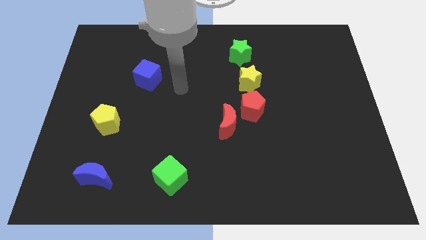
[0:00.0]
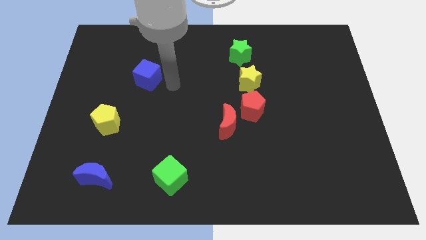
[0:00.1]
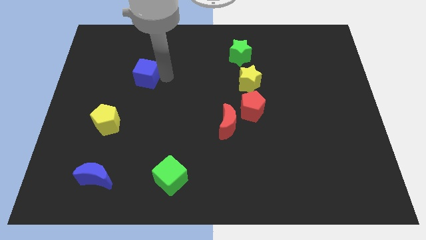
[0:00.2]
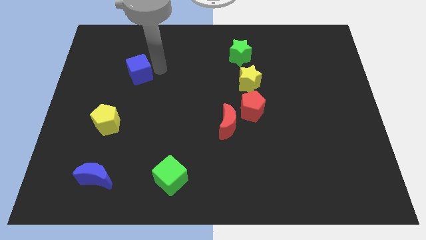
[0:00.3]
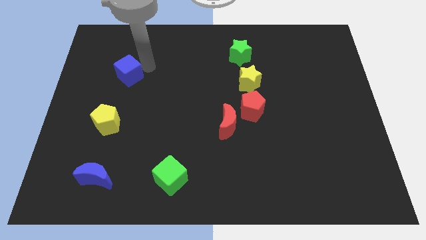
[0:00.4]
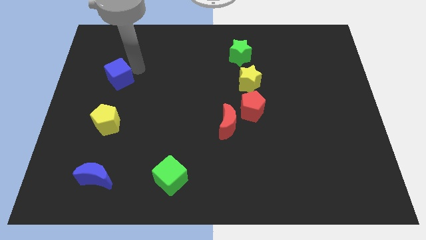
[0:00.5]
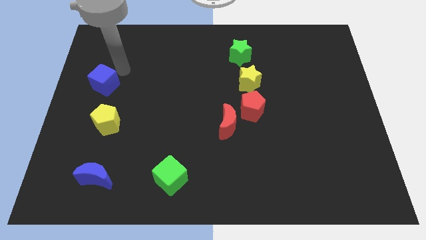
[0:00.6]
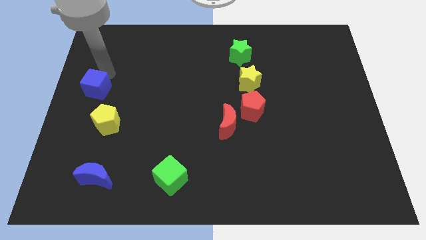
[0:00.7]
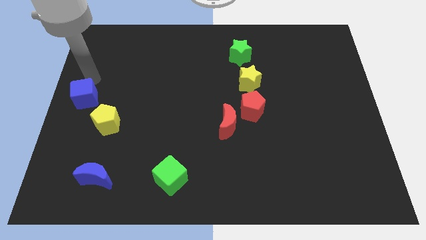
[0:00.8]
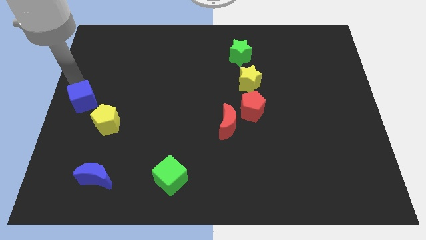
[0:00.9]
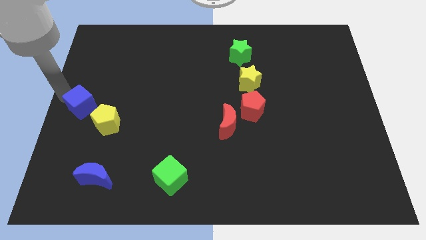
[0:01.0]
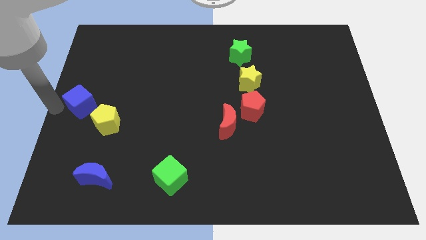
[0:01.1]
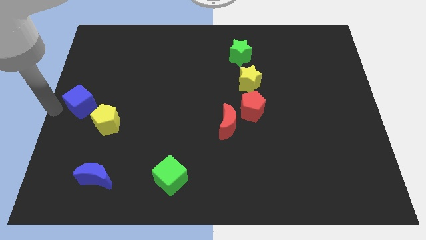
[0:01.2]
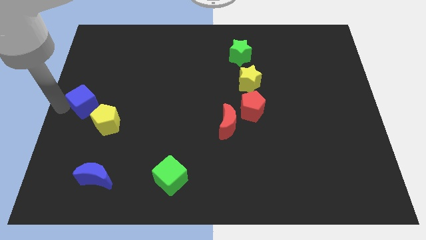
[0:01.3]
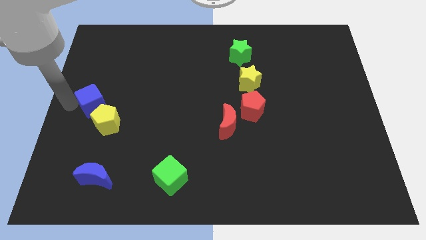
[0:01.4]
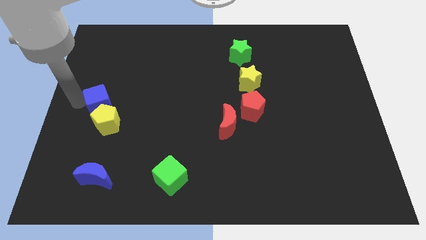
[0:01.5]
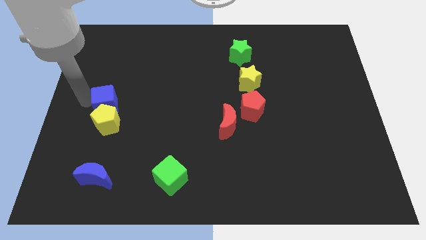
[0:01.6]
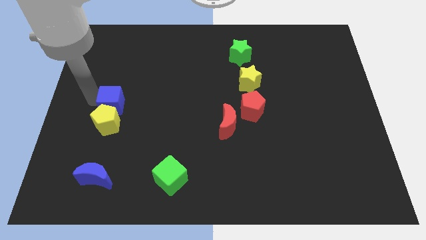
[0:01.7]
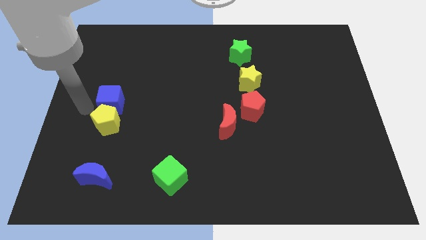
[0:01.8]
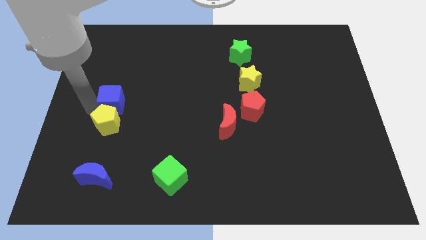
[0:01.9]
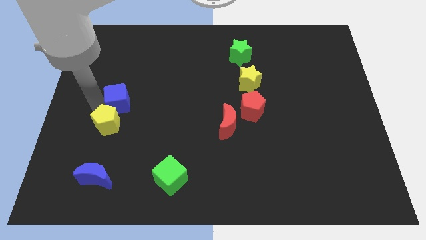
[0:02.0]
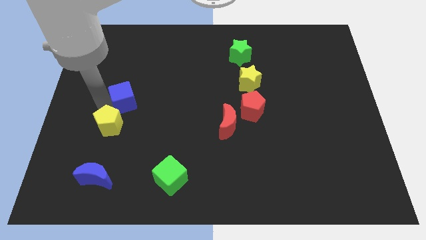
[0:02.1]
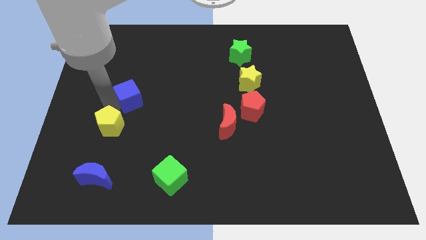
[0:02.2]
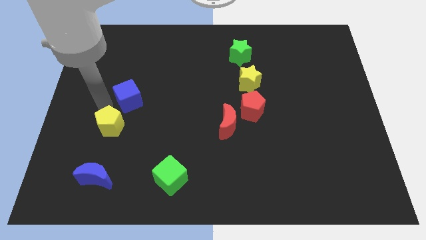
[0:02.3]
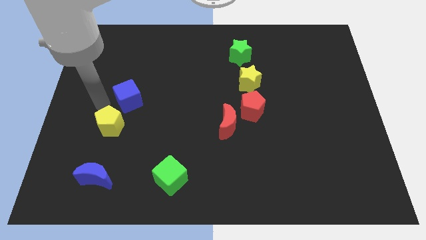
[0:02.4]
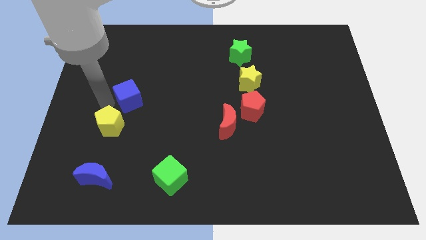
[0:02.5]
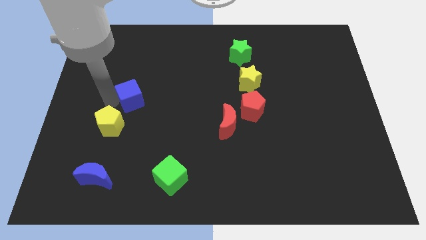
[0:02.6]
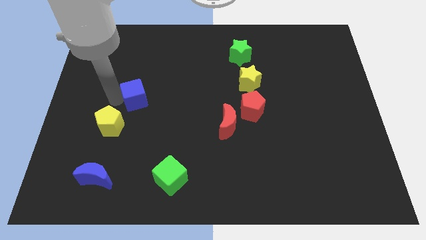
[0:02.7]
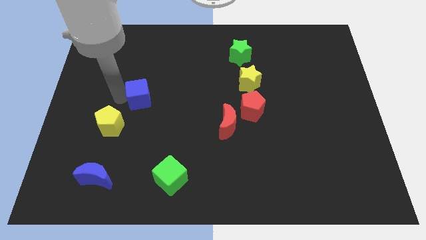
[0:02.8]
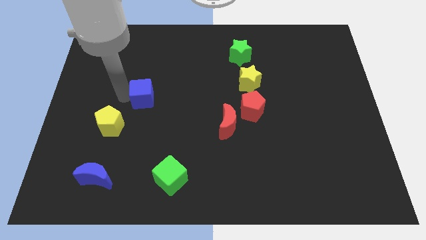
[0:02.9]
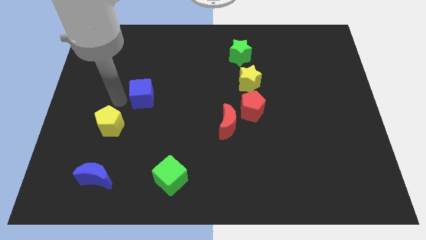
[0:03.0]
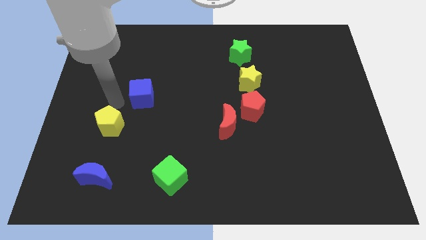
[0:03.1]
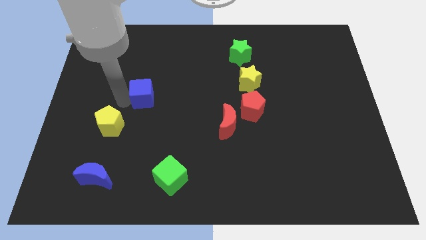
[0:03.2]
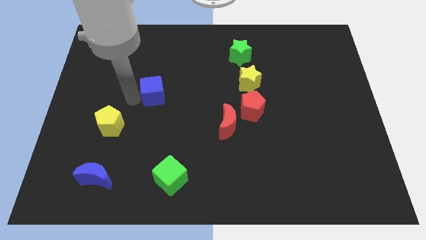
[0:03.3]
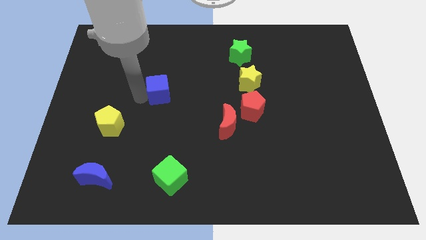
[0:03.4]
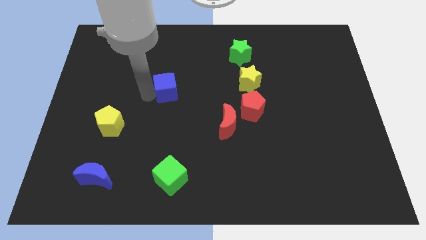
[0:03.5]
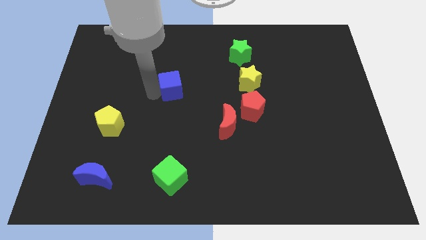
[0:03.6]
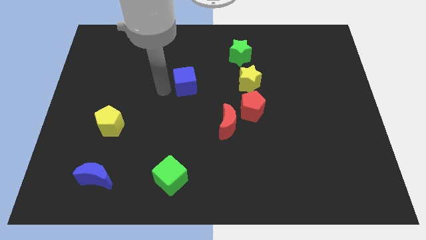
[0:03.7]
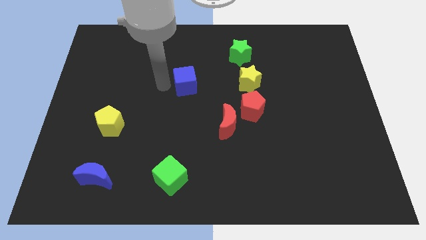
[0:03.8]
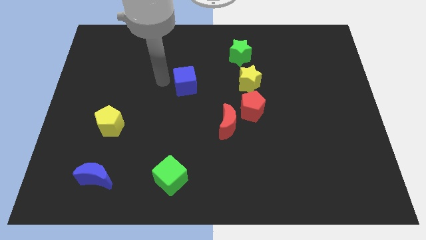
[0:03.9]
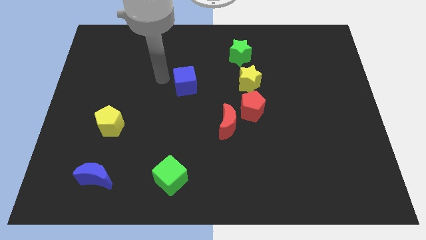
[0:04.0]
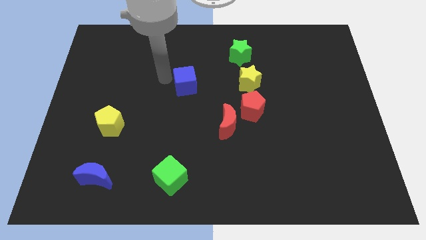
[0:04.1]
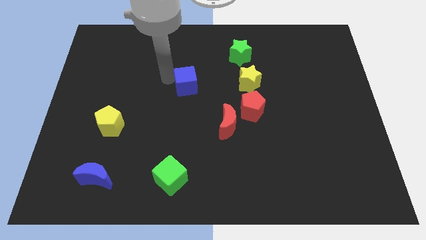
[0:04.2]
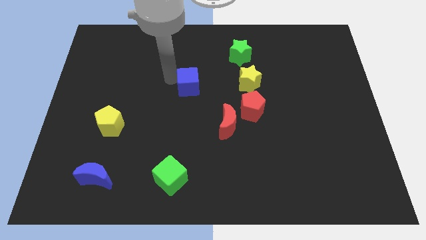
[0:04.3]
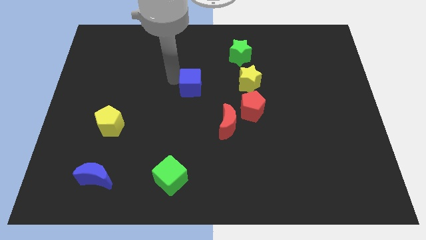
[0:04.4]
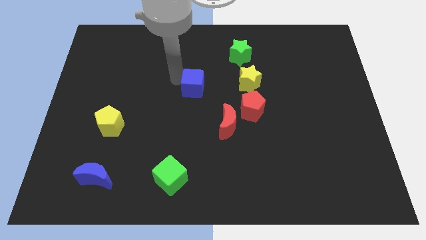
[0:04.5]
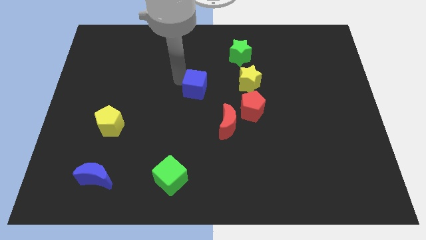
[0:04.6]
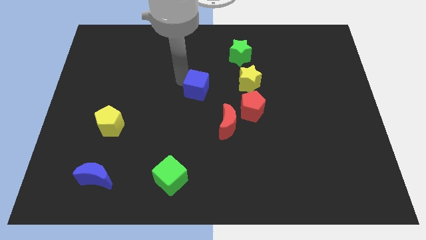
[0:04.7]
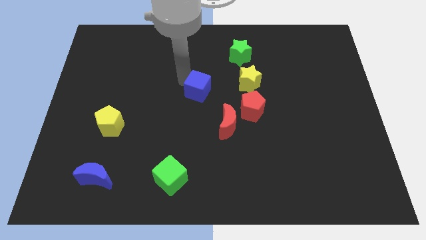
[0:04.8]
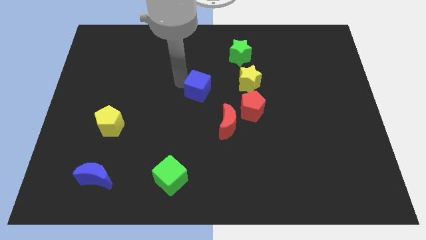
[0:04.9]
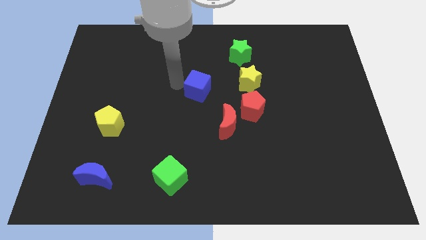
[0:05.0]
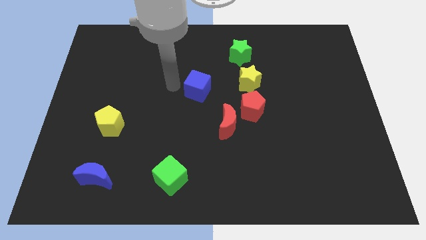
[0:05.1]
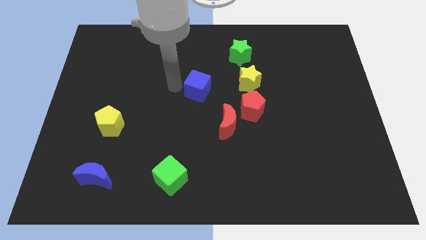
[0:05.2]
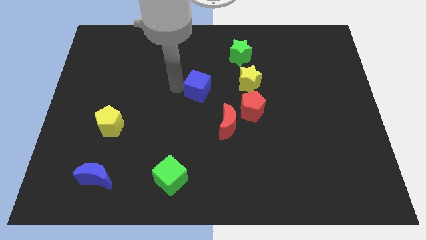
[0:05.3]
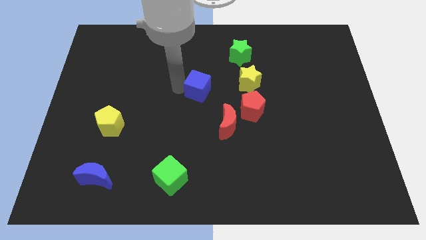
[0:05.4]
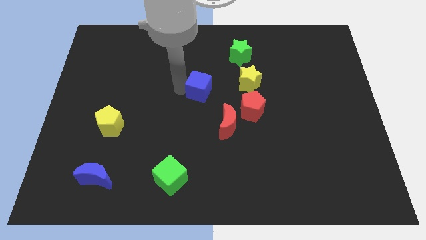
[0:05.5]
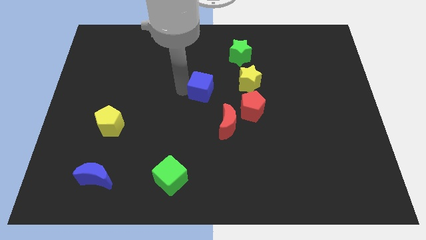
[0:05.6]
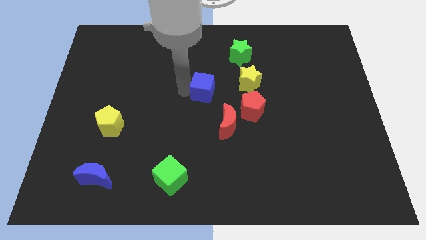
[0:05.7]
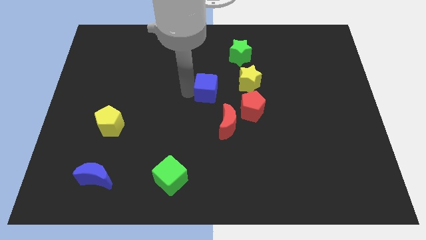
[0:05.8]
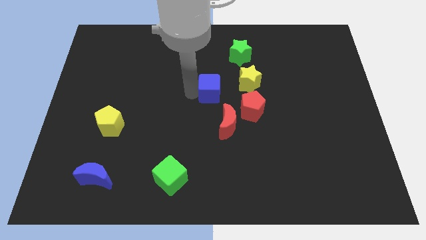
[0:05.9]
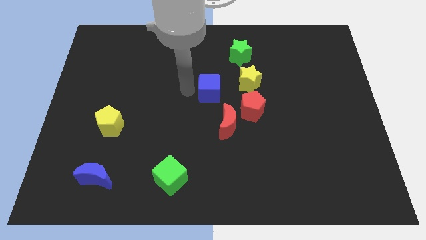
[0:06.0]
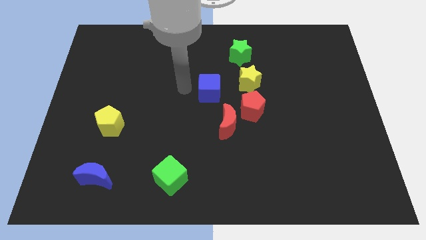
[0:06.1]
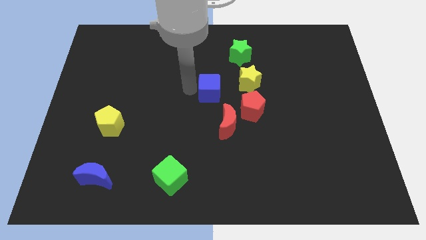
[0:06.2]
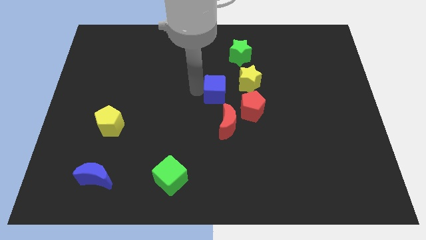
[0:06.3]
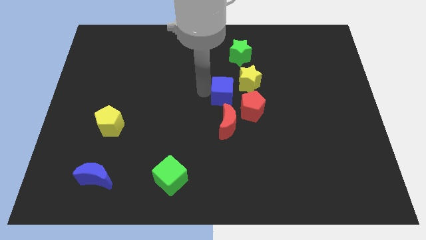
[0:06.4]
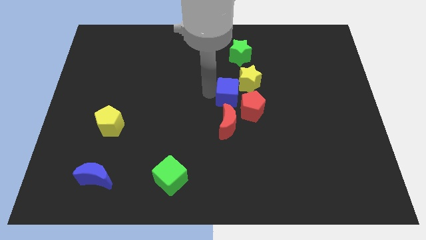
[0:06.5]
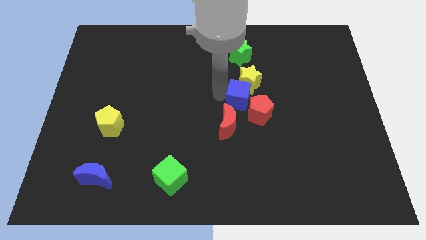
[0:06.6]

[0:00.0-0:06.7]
push the blue cube diagonally up and to the right of the red moon

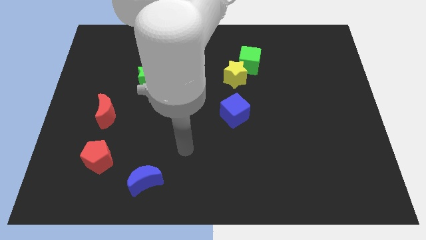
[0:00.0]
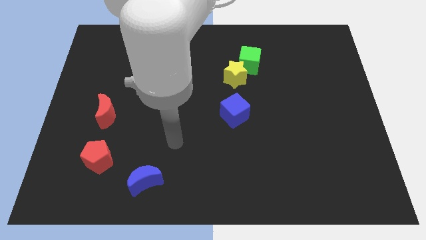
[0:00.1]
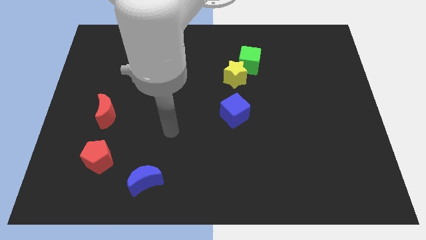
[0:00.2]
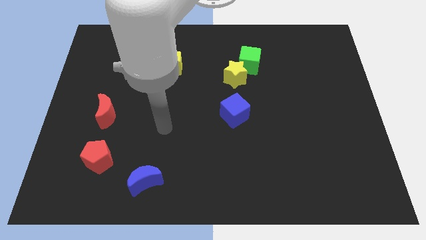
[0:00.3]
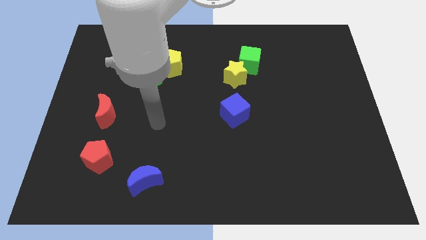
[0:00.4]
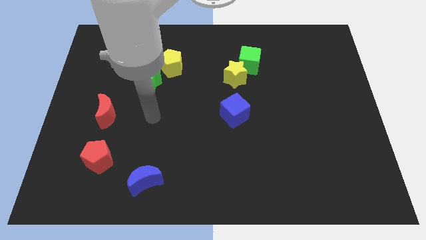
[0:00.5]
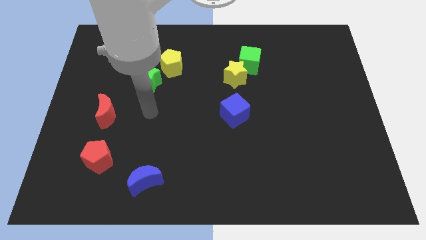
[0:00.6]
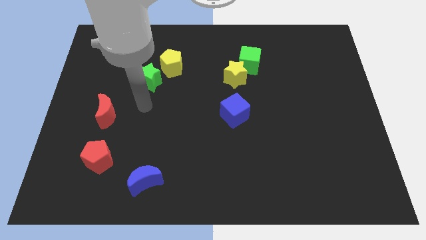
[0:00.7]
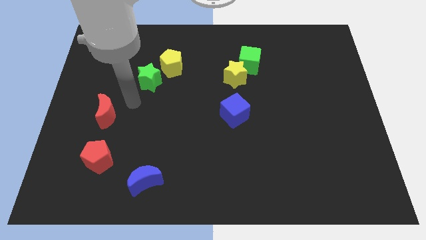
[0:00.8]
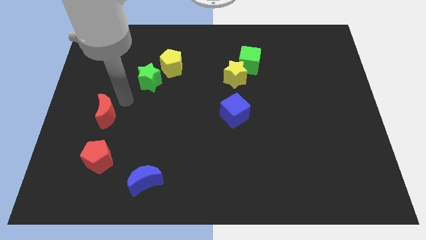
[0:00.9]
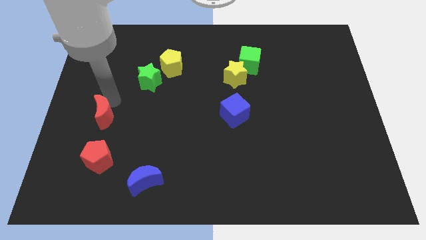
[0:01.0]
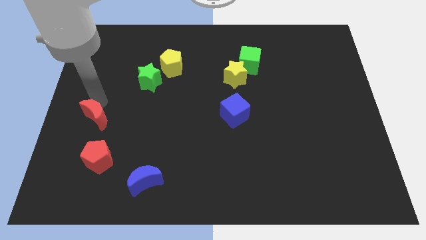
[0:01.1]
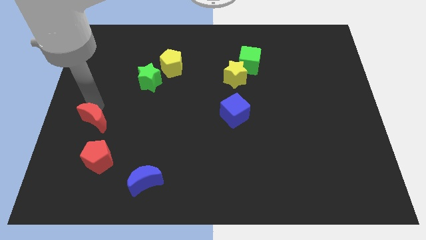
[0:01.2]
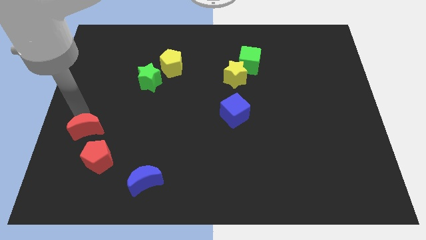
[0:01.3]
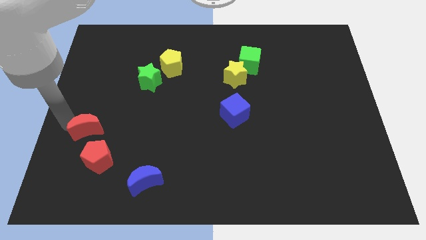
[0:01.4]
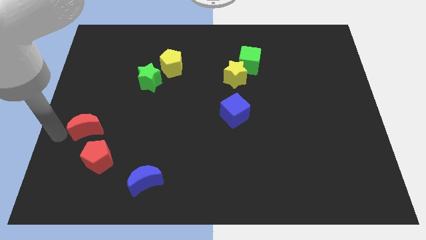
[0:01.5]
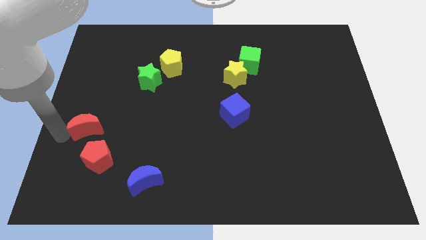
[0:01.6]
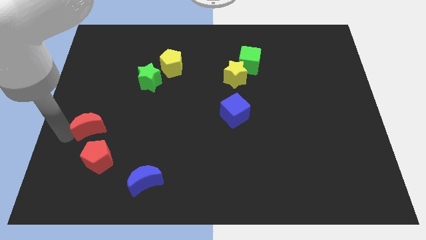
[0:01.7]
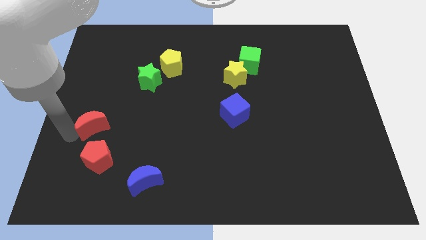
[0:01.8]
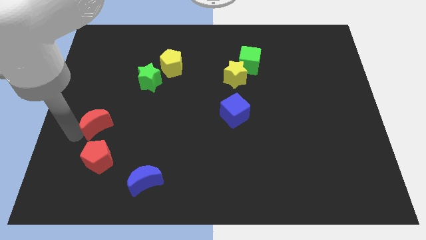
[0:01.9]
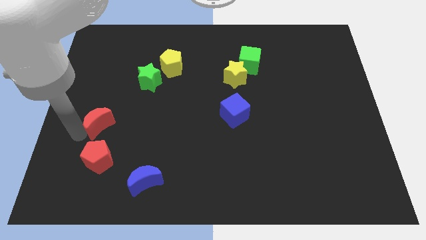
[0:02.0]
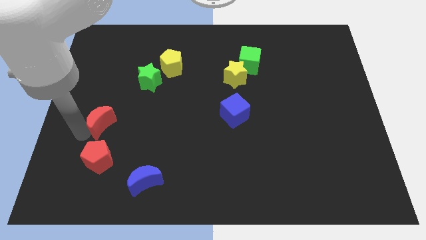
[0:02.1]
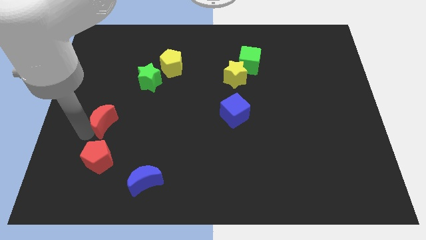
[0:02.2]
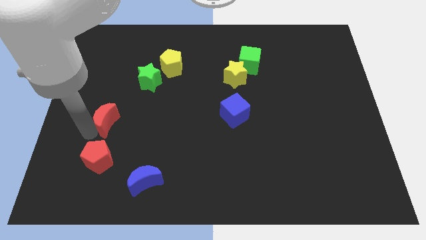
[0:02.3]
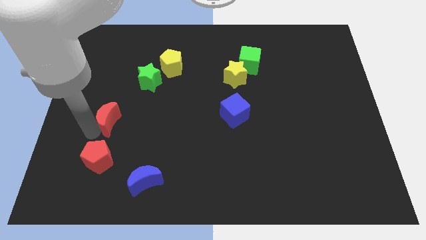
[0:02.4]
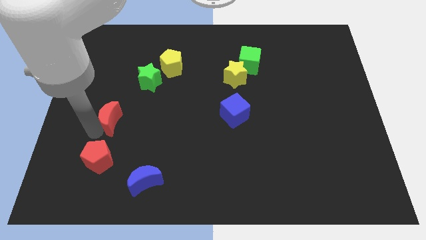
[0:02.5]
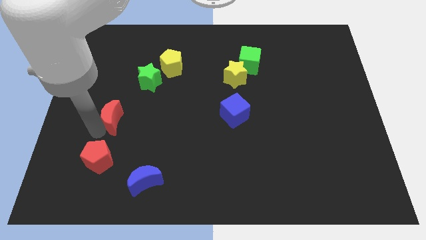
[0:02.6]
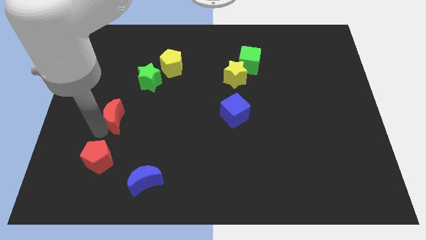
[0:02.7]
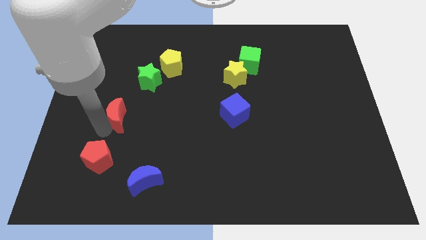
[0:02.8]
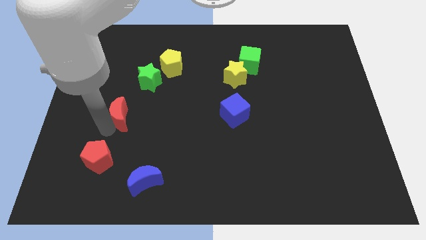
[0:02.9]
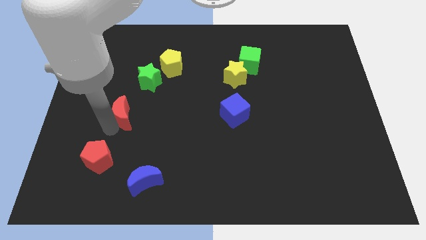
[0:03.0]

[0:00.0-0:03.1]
slide the red moon below the green star
